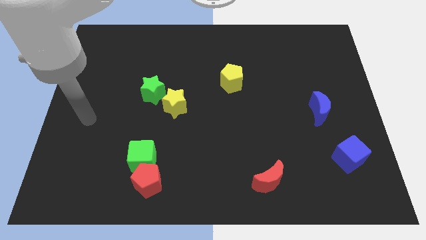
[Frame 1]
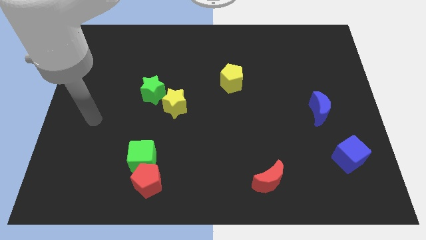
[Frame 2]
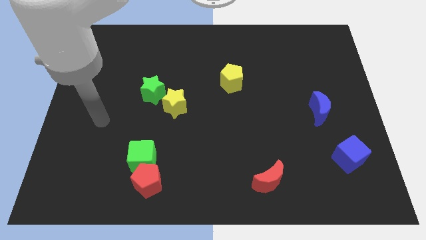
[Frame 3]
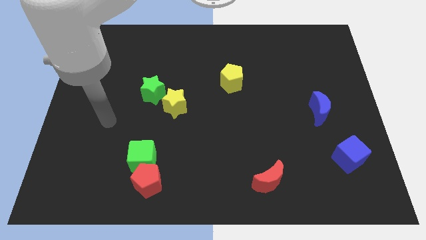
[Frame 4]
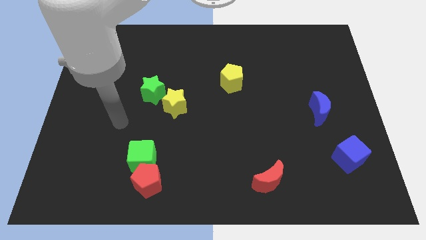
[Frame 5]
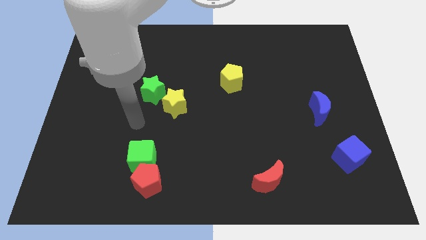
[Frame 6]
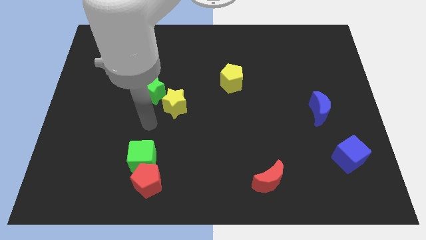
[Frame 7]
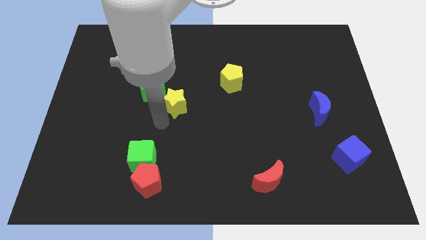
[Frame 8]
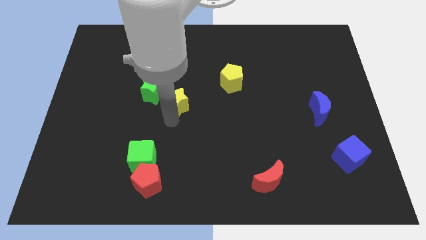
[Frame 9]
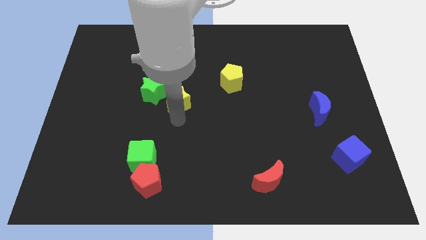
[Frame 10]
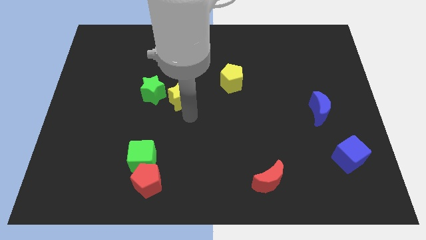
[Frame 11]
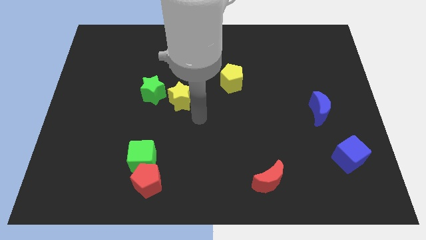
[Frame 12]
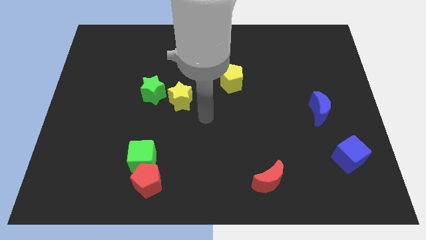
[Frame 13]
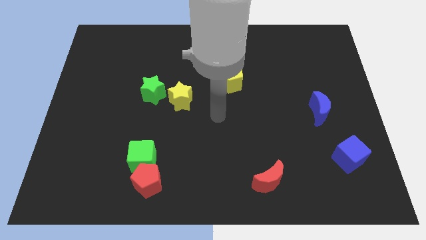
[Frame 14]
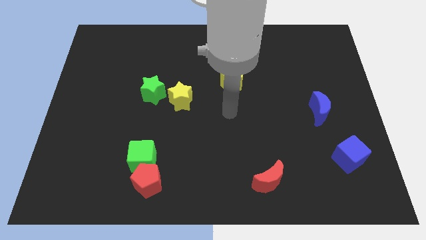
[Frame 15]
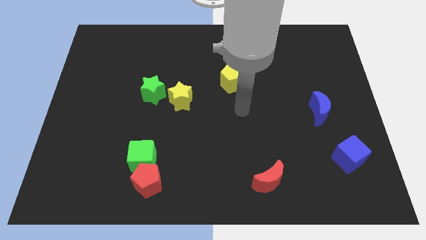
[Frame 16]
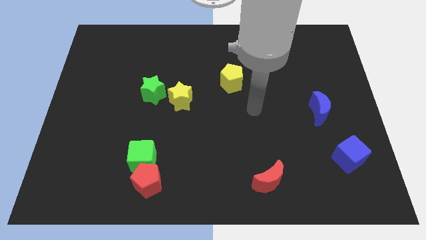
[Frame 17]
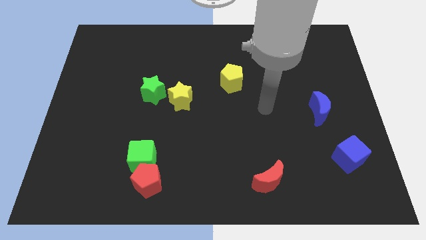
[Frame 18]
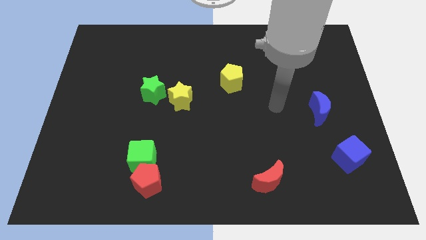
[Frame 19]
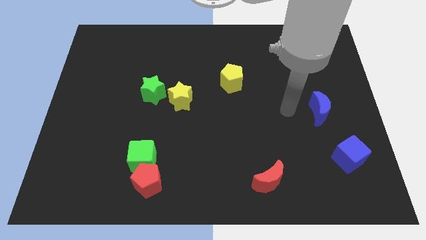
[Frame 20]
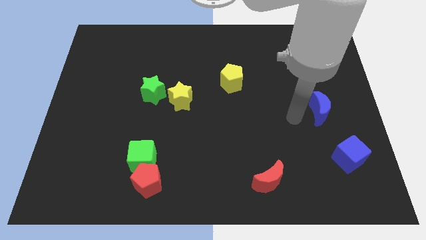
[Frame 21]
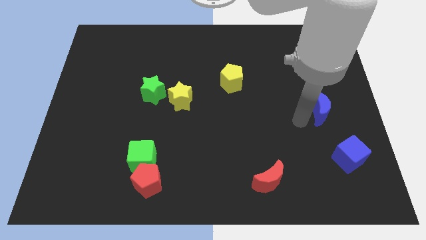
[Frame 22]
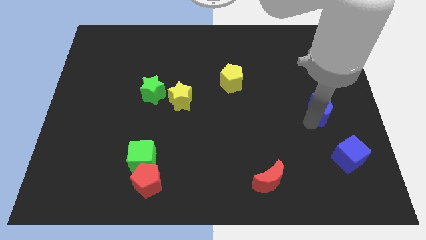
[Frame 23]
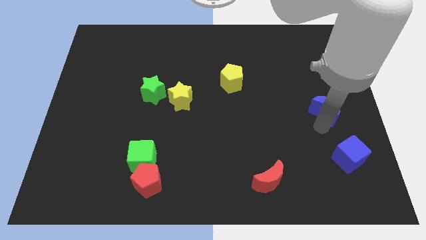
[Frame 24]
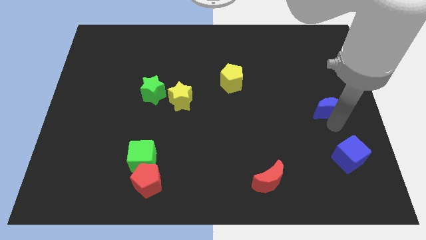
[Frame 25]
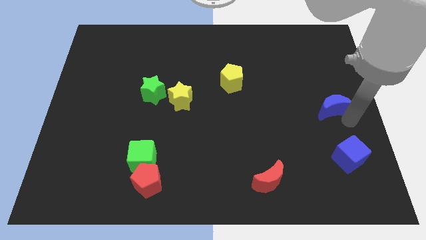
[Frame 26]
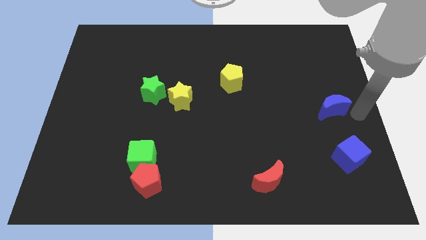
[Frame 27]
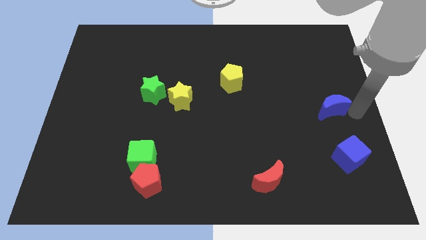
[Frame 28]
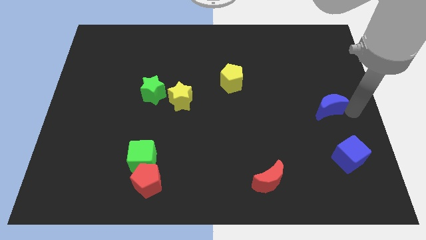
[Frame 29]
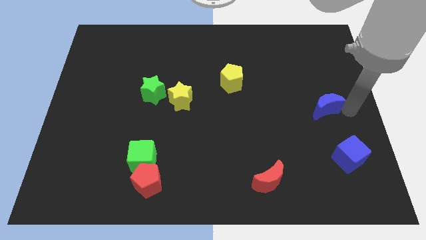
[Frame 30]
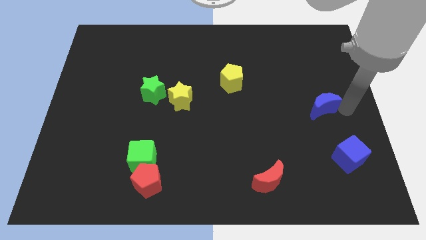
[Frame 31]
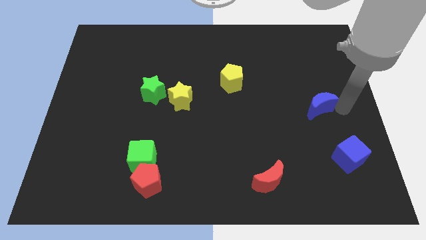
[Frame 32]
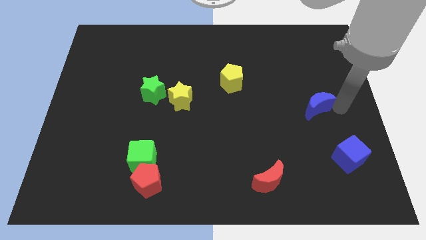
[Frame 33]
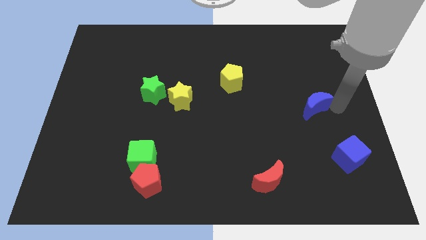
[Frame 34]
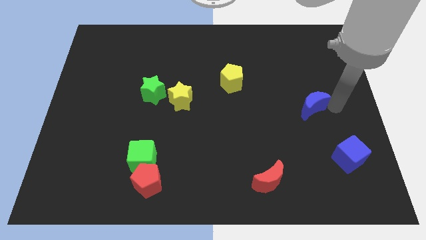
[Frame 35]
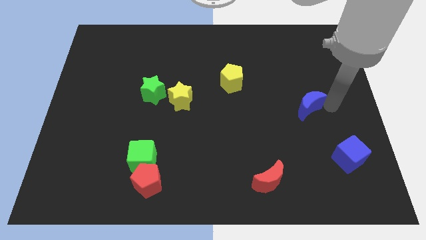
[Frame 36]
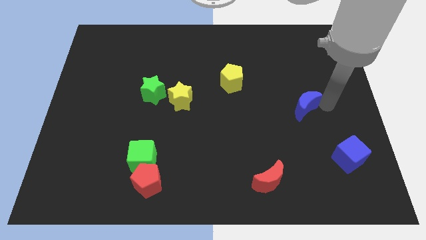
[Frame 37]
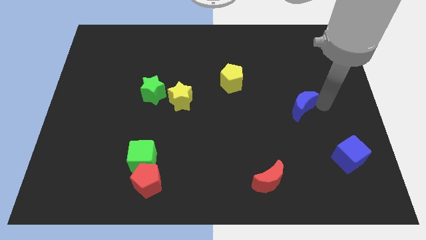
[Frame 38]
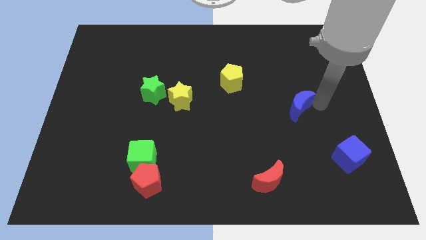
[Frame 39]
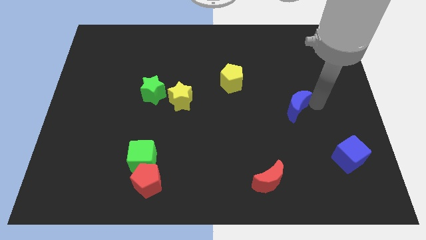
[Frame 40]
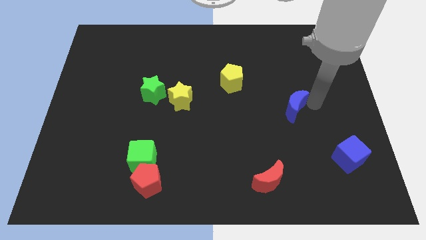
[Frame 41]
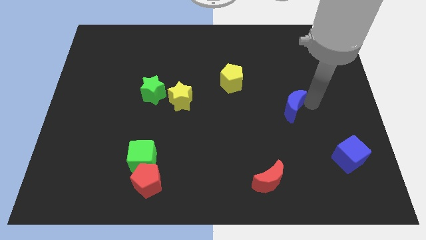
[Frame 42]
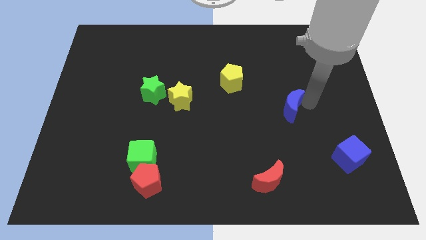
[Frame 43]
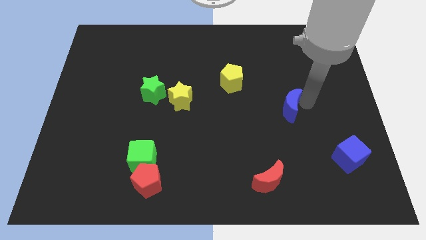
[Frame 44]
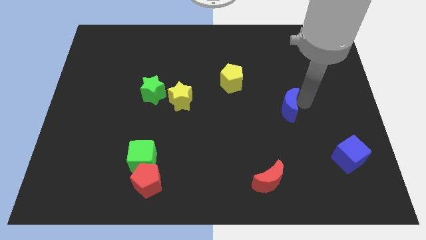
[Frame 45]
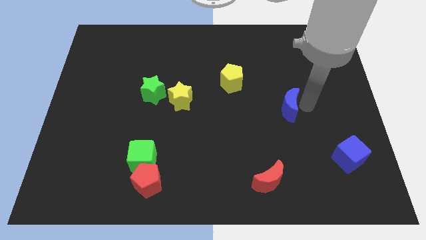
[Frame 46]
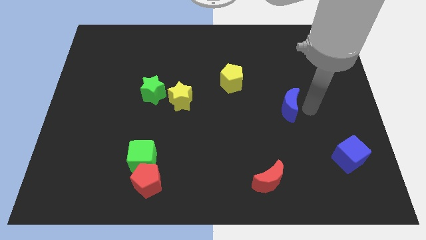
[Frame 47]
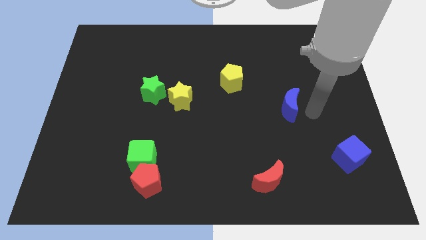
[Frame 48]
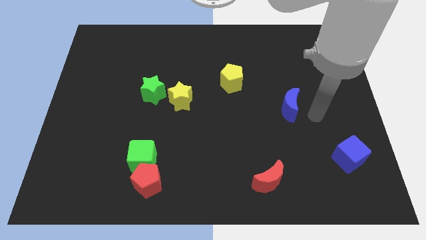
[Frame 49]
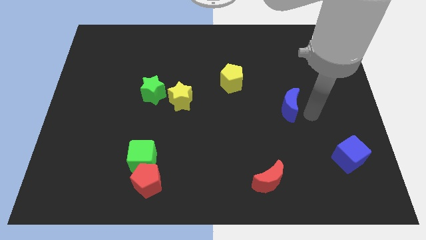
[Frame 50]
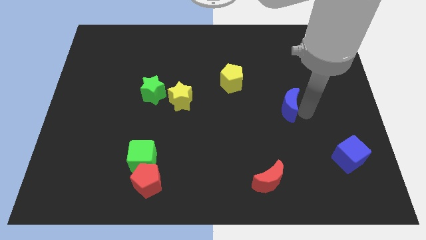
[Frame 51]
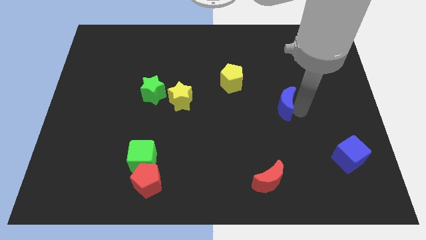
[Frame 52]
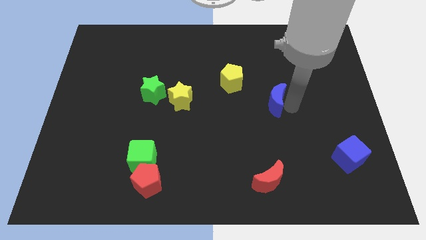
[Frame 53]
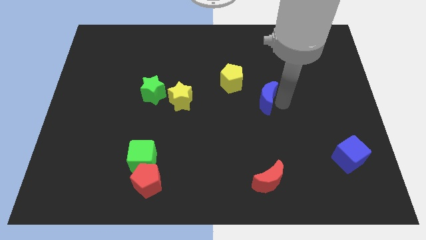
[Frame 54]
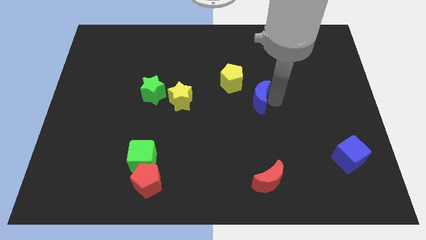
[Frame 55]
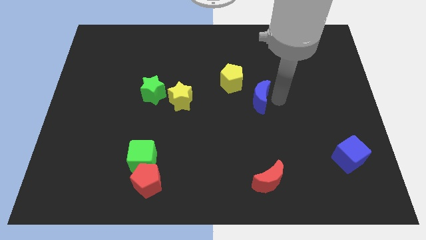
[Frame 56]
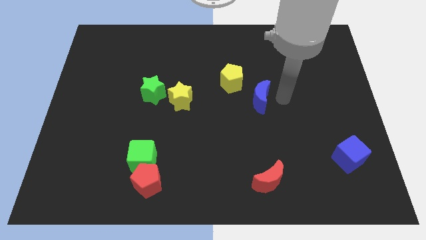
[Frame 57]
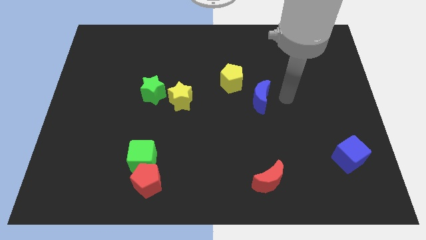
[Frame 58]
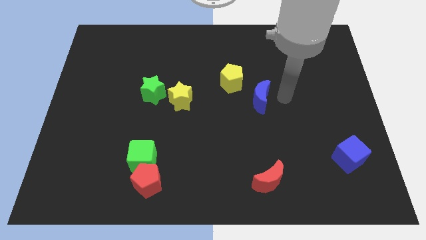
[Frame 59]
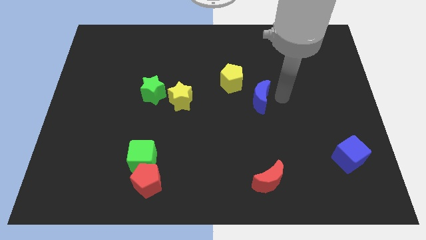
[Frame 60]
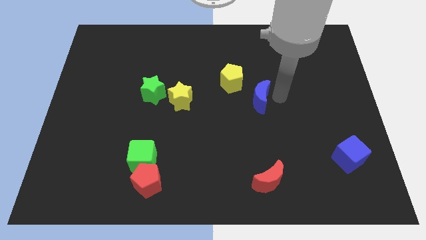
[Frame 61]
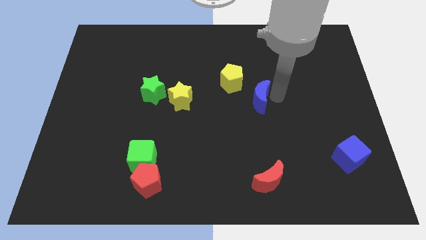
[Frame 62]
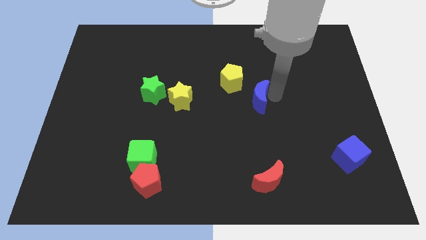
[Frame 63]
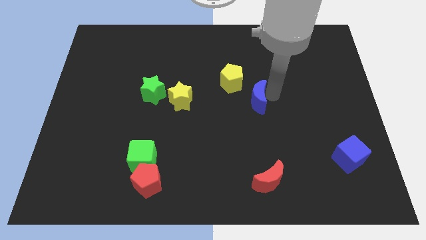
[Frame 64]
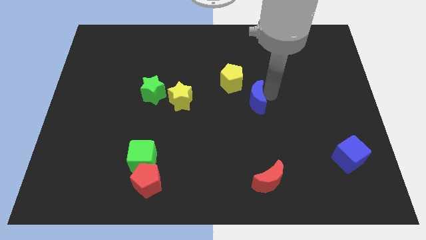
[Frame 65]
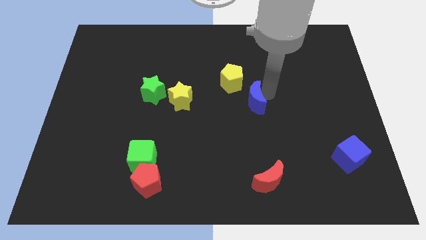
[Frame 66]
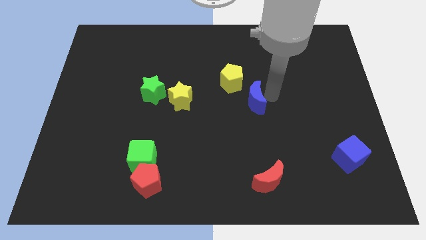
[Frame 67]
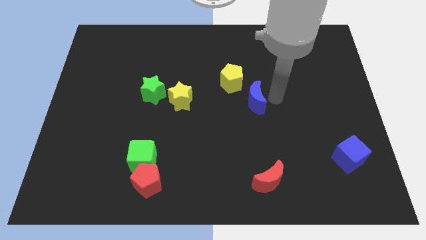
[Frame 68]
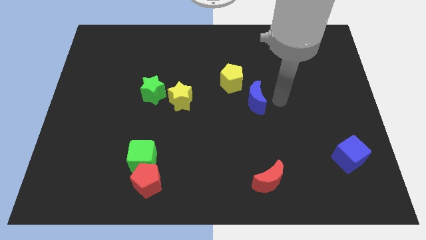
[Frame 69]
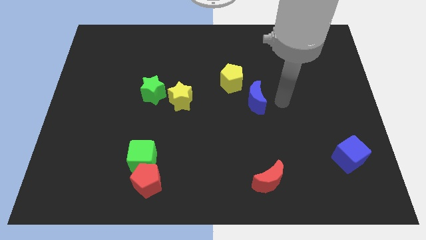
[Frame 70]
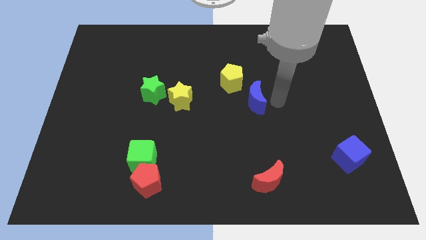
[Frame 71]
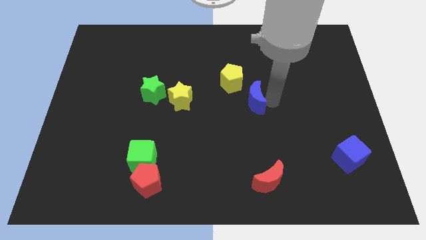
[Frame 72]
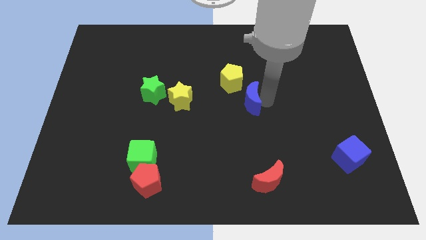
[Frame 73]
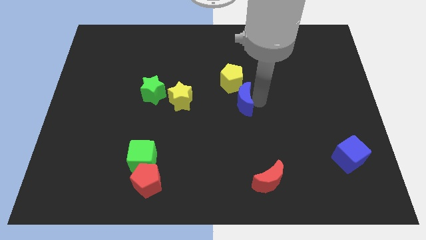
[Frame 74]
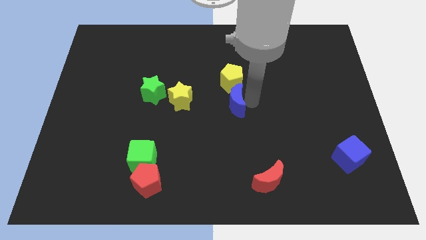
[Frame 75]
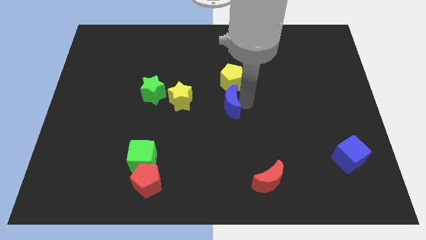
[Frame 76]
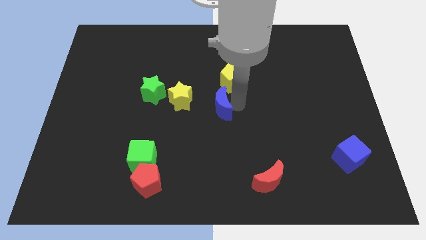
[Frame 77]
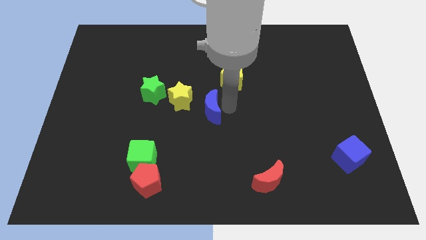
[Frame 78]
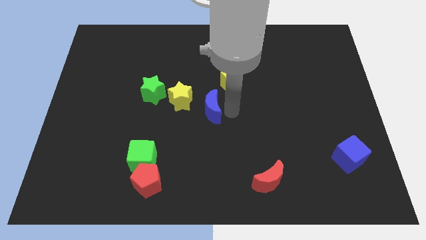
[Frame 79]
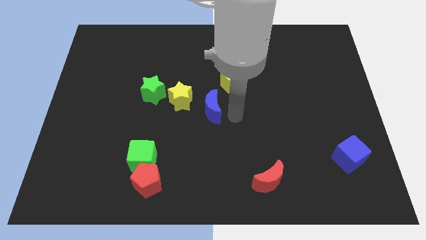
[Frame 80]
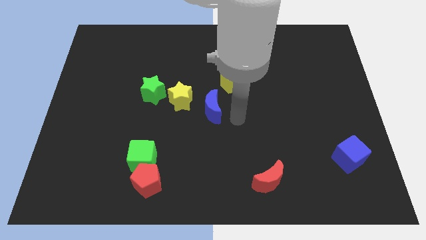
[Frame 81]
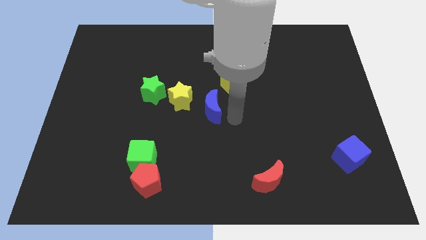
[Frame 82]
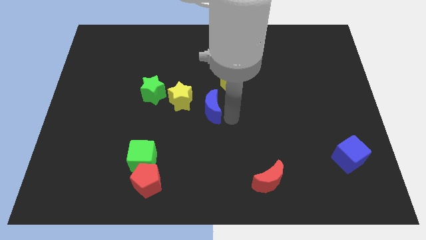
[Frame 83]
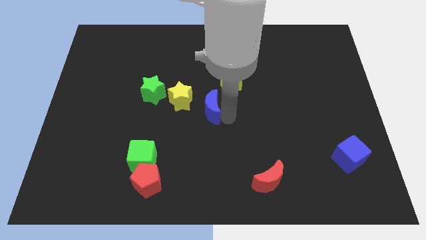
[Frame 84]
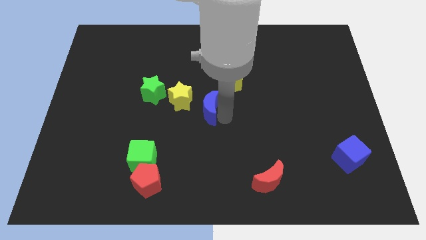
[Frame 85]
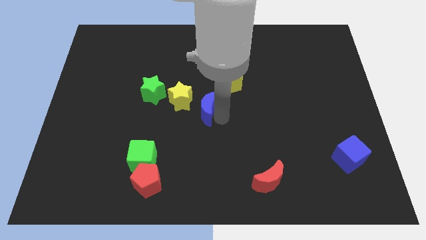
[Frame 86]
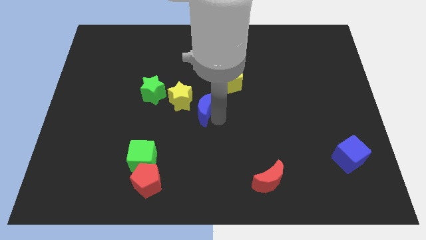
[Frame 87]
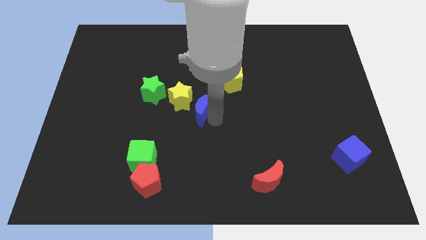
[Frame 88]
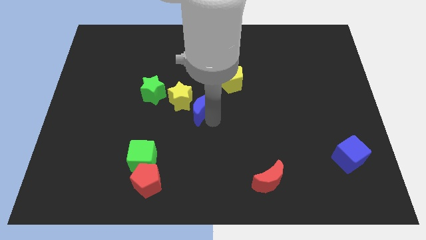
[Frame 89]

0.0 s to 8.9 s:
push the blue moon to the yellow star
